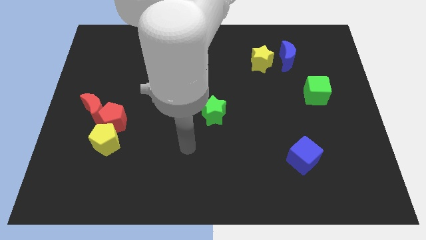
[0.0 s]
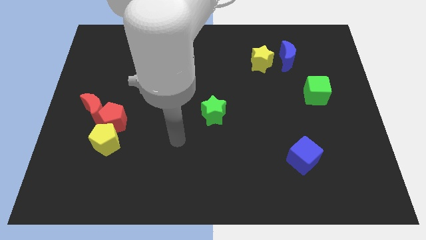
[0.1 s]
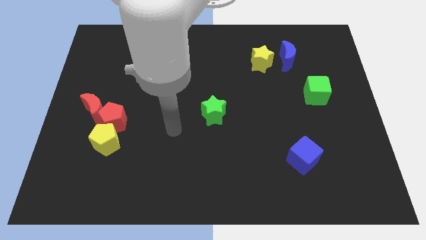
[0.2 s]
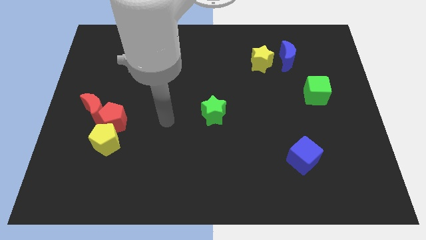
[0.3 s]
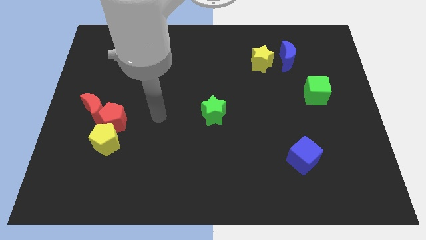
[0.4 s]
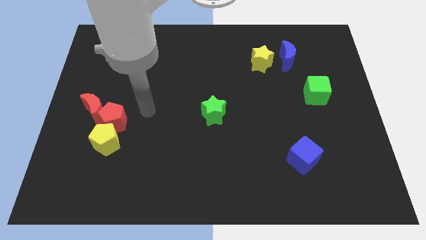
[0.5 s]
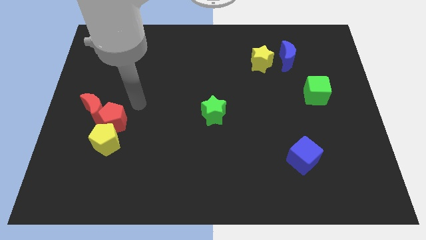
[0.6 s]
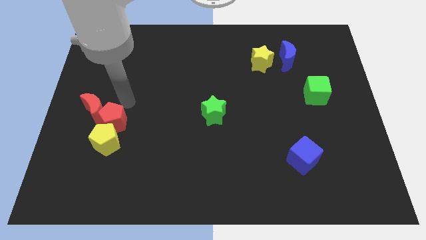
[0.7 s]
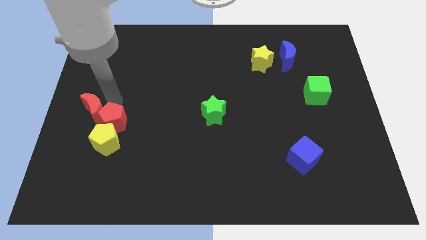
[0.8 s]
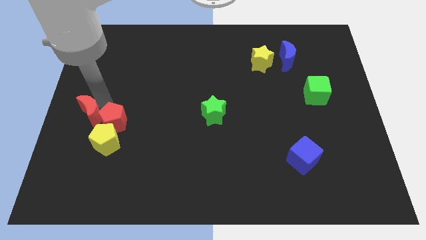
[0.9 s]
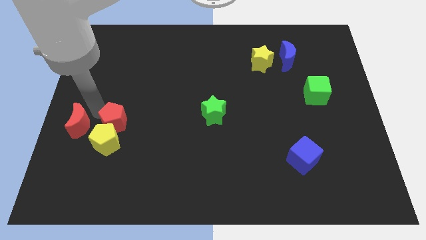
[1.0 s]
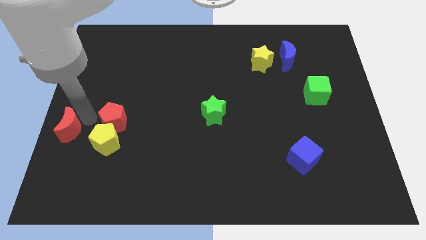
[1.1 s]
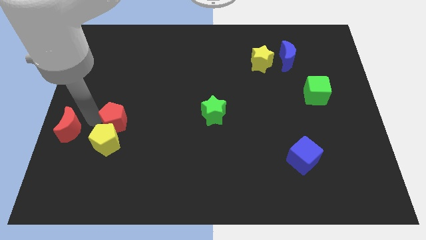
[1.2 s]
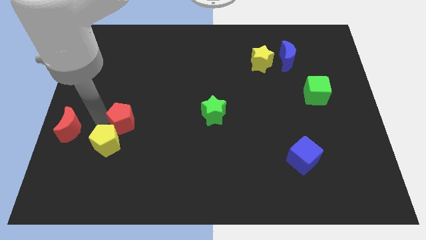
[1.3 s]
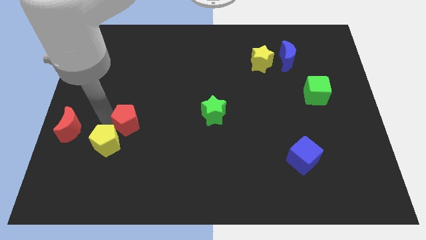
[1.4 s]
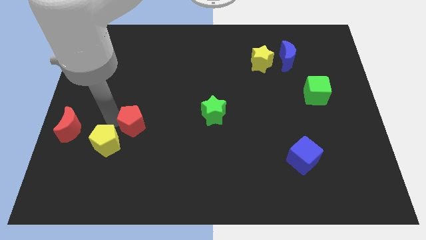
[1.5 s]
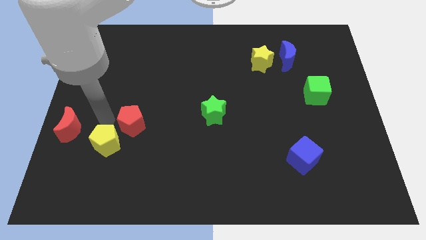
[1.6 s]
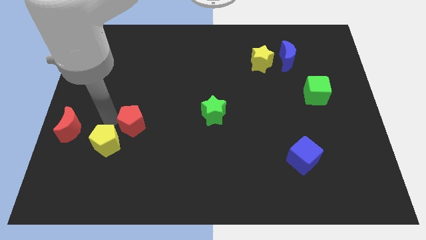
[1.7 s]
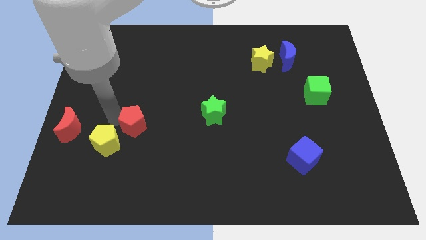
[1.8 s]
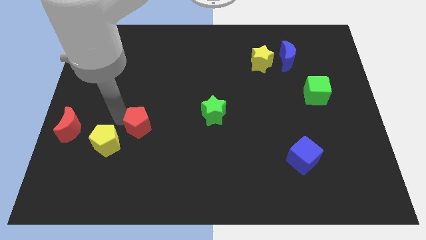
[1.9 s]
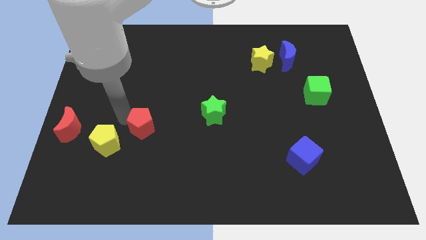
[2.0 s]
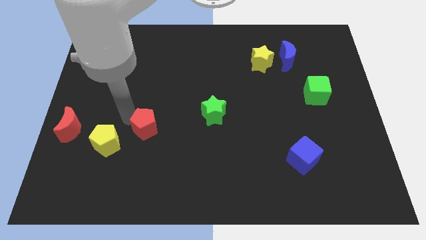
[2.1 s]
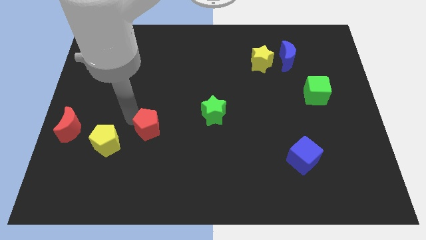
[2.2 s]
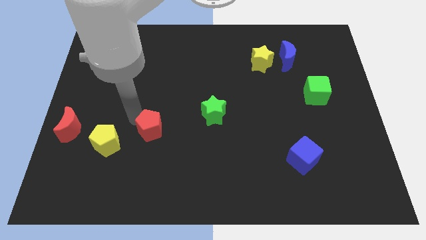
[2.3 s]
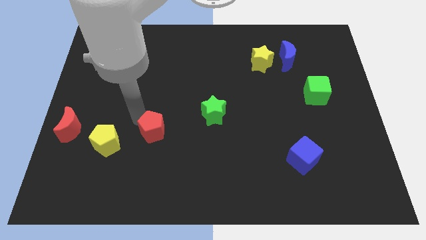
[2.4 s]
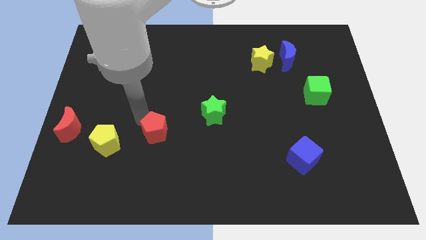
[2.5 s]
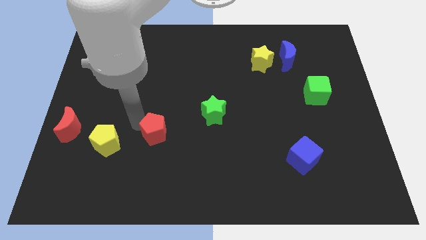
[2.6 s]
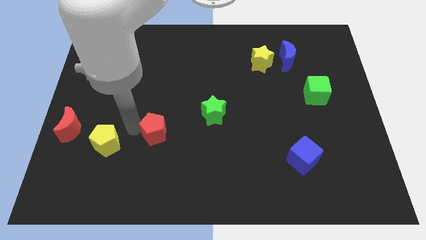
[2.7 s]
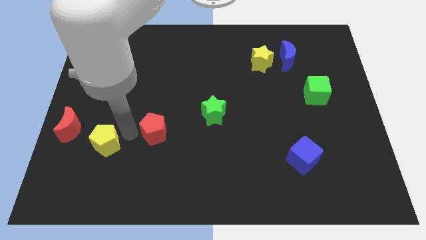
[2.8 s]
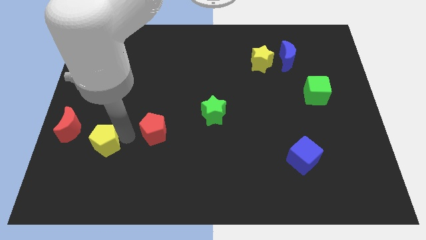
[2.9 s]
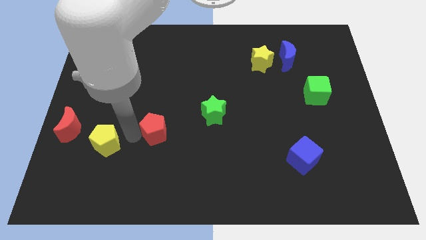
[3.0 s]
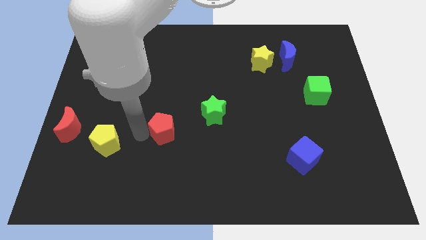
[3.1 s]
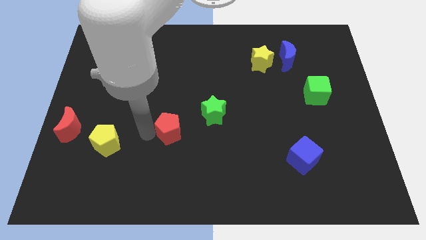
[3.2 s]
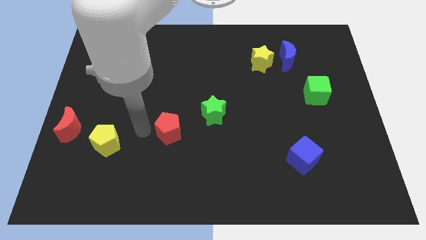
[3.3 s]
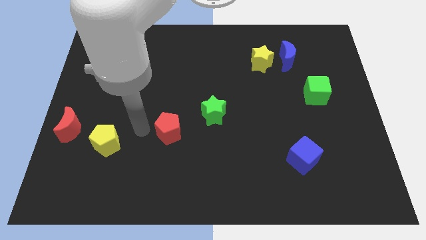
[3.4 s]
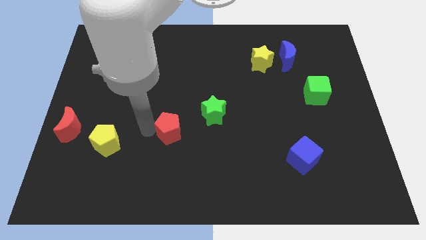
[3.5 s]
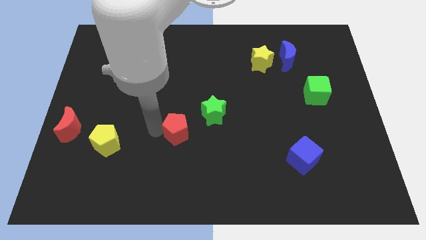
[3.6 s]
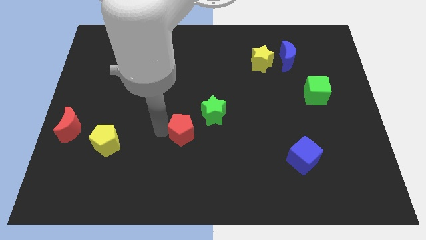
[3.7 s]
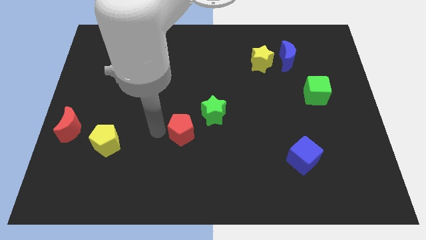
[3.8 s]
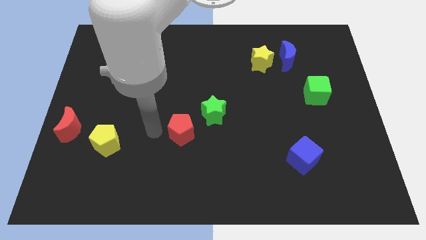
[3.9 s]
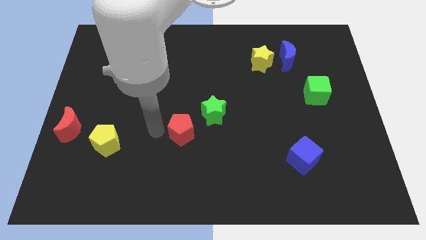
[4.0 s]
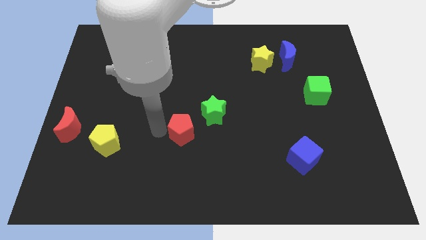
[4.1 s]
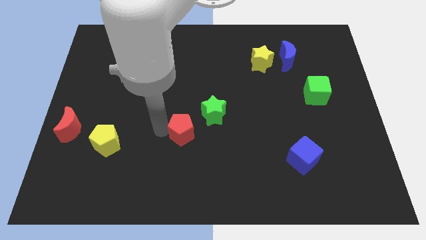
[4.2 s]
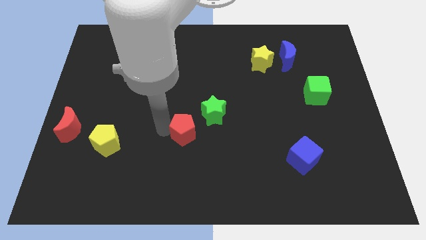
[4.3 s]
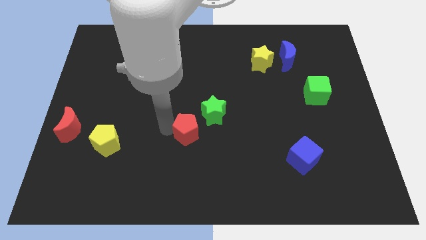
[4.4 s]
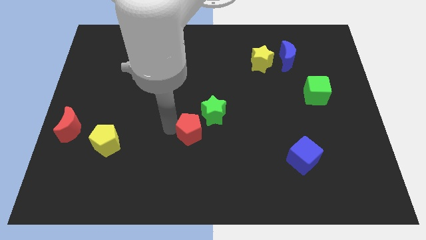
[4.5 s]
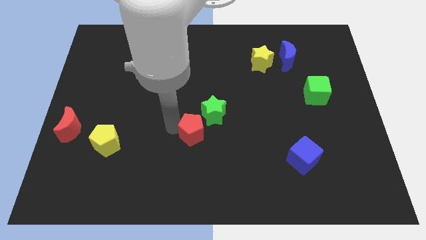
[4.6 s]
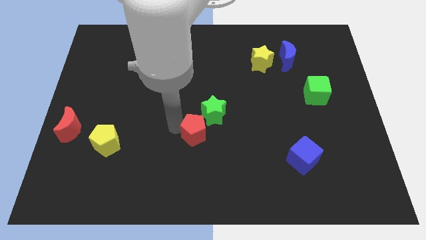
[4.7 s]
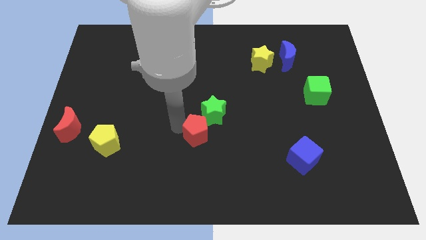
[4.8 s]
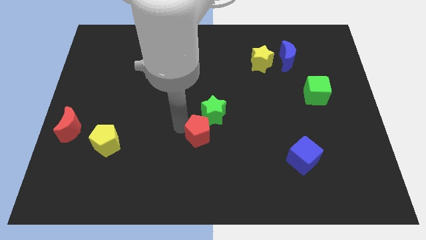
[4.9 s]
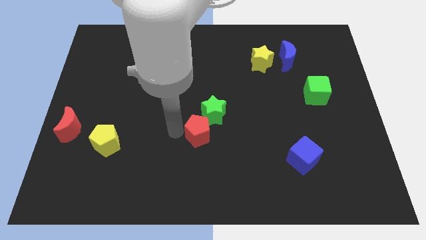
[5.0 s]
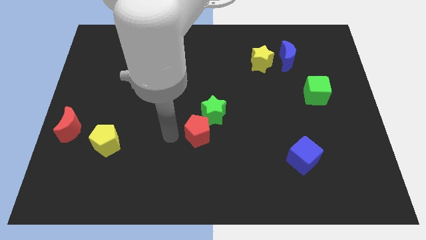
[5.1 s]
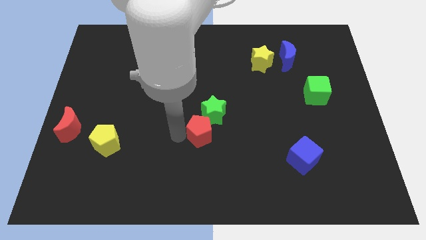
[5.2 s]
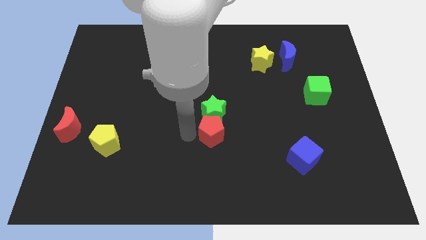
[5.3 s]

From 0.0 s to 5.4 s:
move the red pentagon right

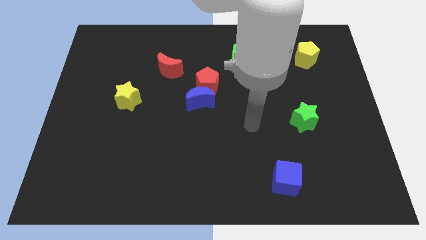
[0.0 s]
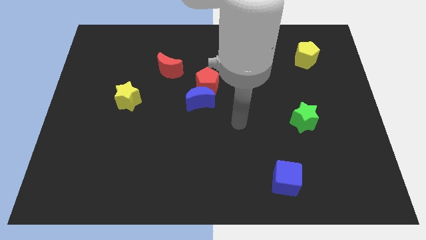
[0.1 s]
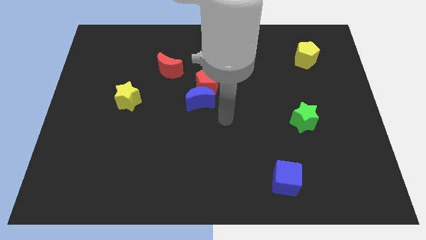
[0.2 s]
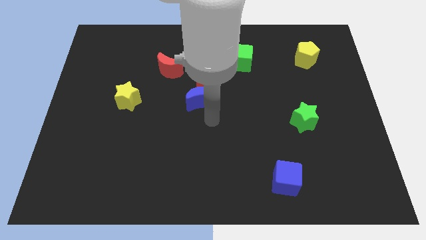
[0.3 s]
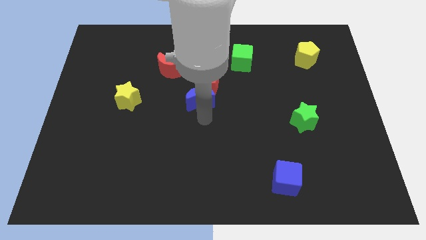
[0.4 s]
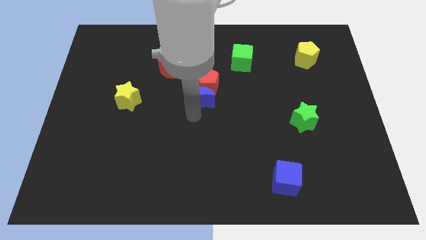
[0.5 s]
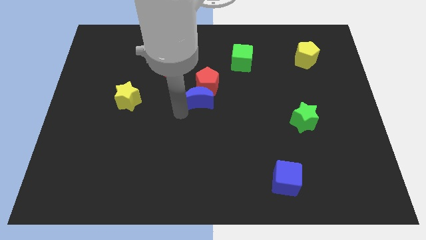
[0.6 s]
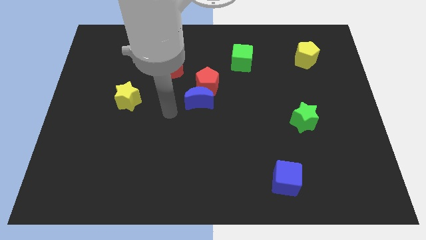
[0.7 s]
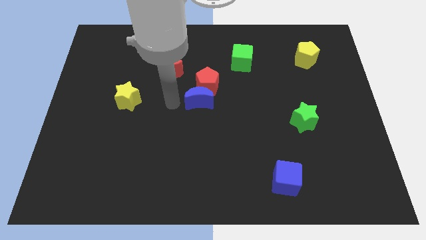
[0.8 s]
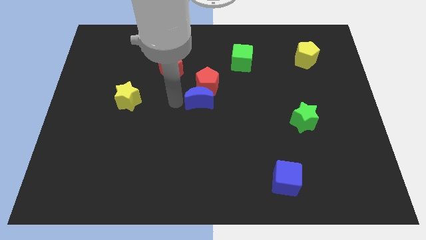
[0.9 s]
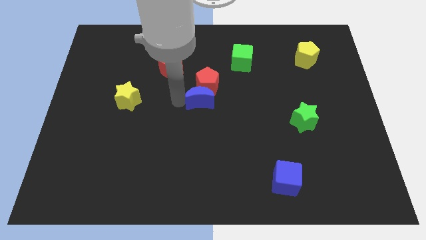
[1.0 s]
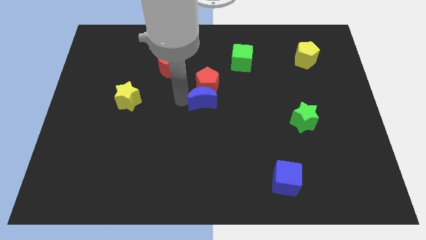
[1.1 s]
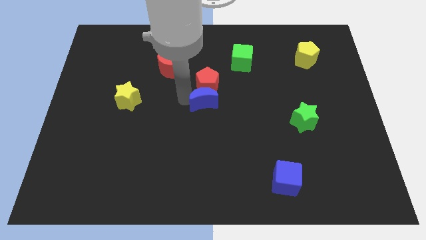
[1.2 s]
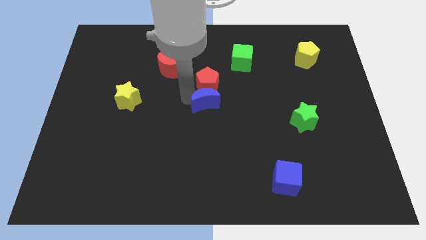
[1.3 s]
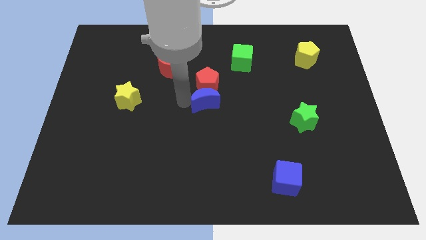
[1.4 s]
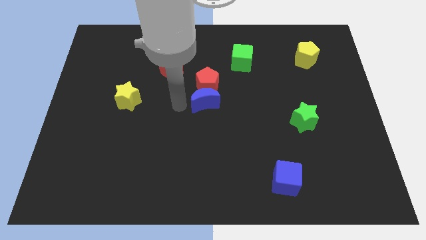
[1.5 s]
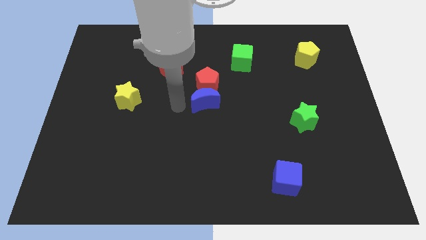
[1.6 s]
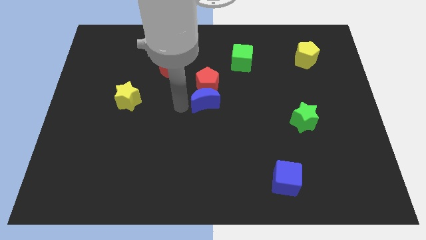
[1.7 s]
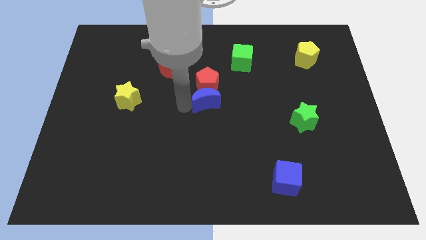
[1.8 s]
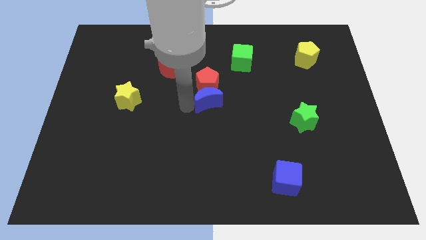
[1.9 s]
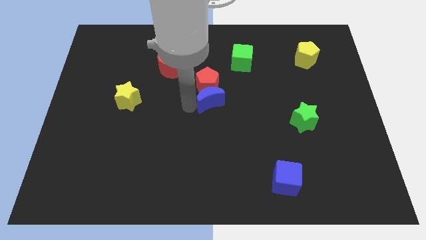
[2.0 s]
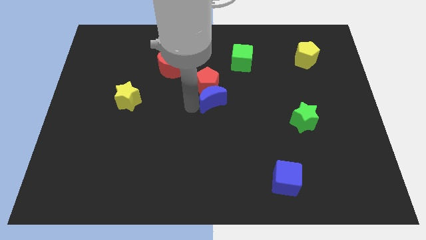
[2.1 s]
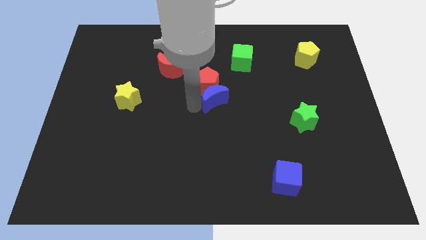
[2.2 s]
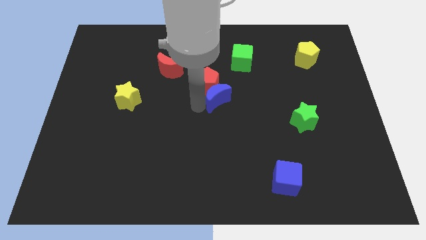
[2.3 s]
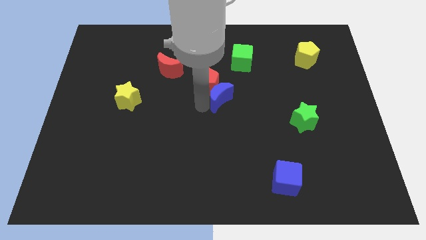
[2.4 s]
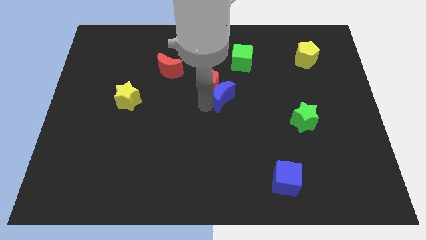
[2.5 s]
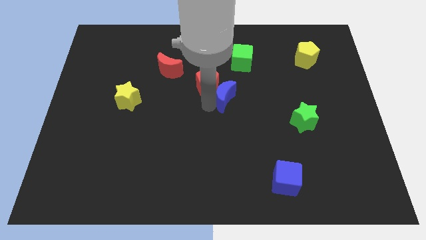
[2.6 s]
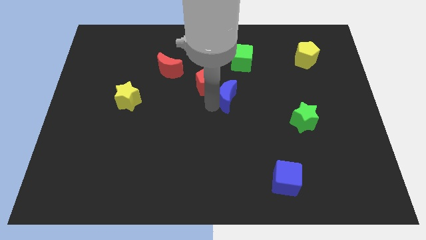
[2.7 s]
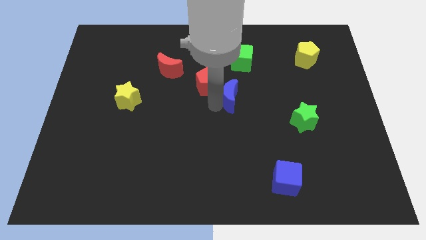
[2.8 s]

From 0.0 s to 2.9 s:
move the blue moon a little right
